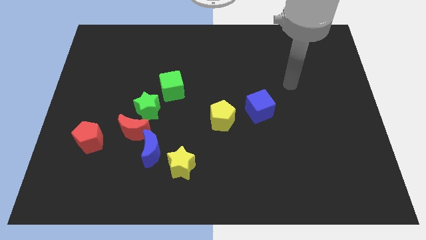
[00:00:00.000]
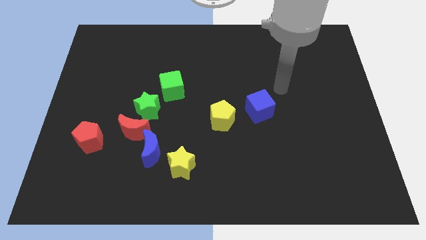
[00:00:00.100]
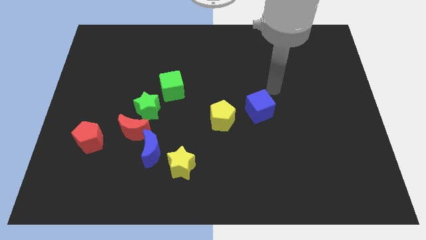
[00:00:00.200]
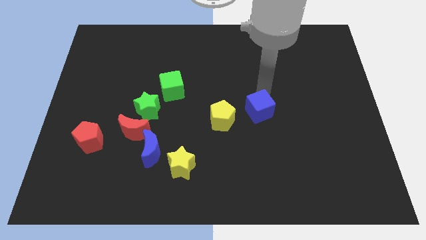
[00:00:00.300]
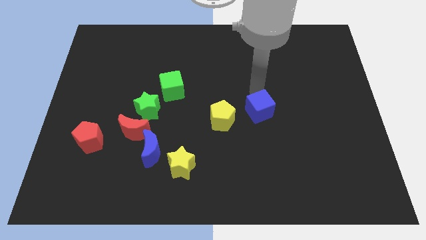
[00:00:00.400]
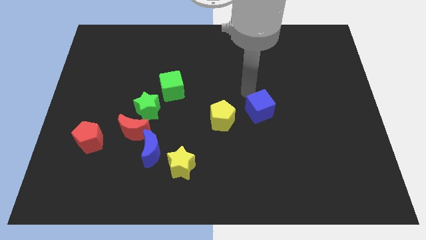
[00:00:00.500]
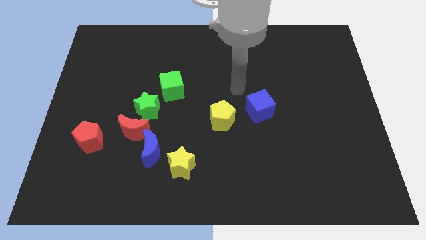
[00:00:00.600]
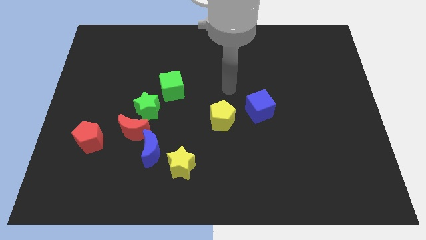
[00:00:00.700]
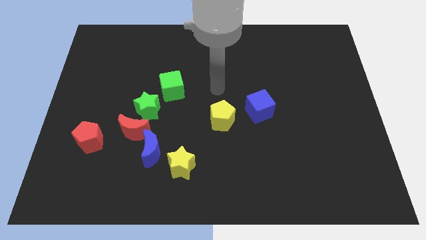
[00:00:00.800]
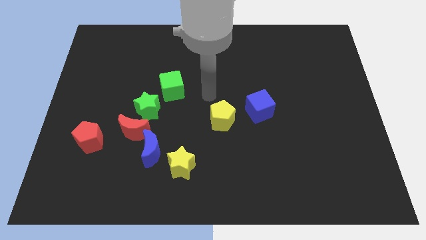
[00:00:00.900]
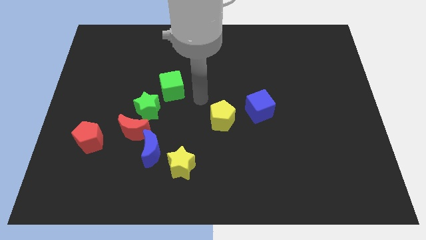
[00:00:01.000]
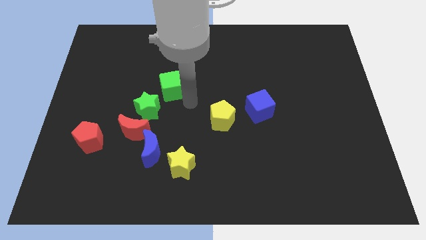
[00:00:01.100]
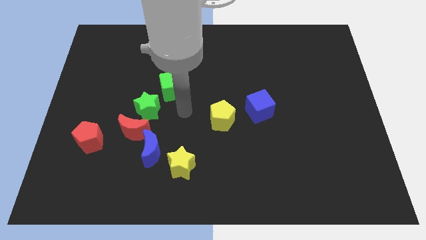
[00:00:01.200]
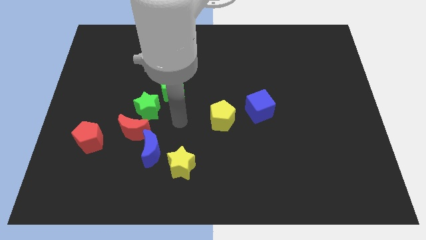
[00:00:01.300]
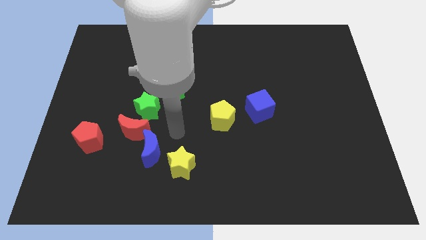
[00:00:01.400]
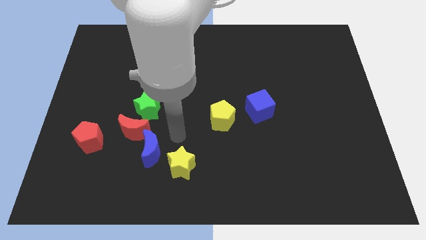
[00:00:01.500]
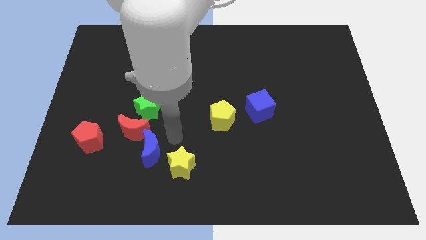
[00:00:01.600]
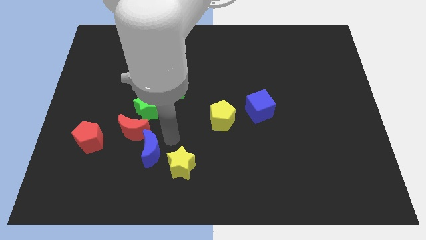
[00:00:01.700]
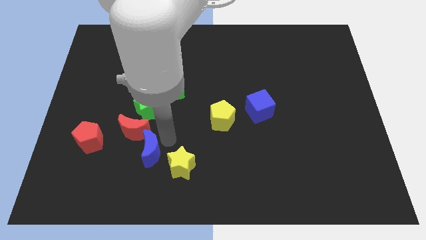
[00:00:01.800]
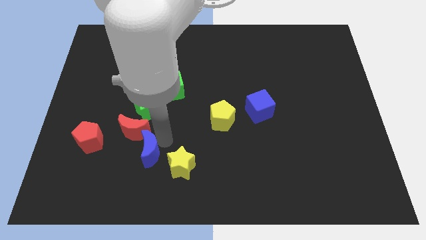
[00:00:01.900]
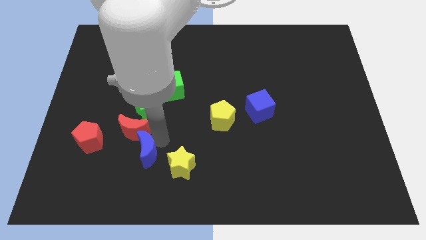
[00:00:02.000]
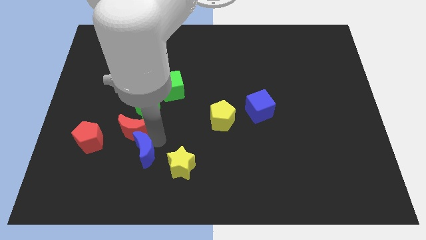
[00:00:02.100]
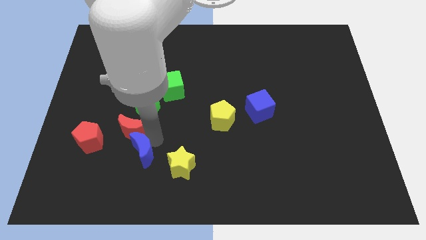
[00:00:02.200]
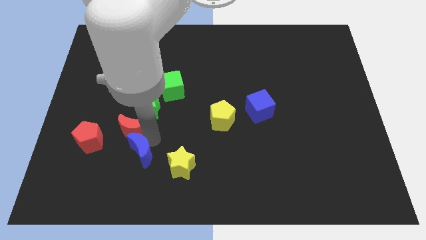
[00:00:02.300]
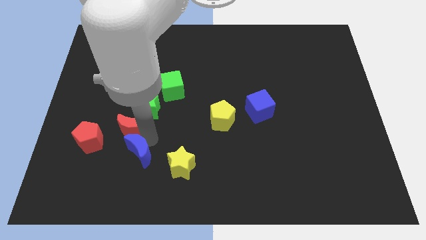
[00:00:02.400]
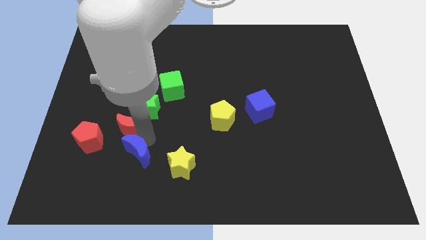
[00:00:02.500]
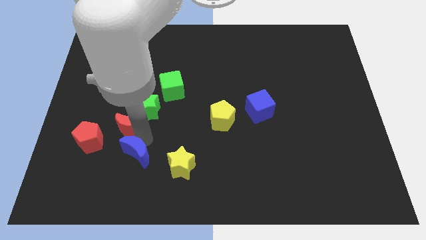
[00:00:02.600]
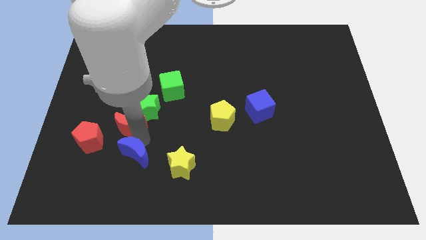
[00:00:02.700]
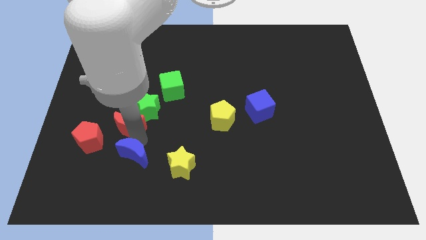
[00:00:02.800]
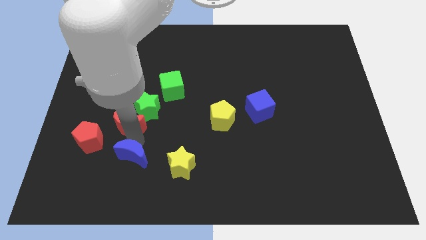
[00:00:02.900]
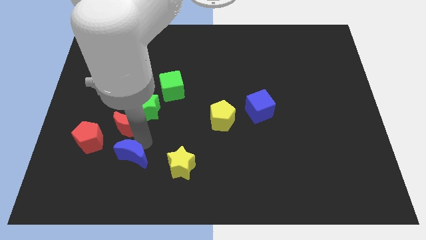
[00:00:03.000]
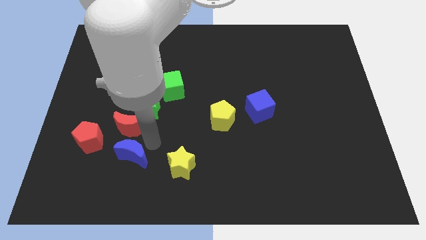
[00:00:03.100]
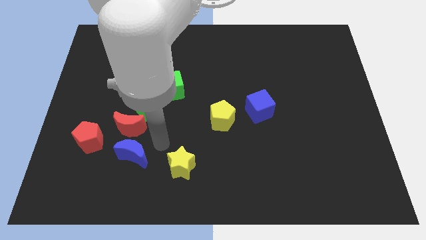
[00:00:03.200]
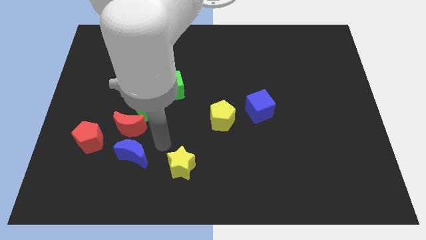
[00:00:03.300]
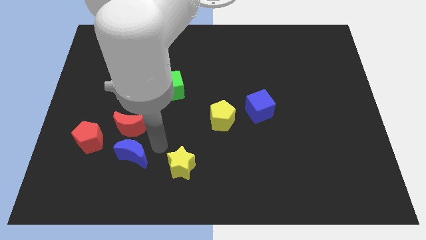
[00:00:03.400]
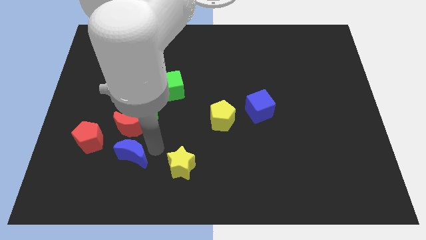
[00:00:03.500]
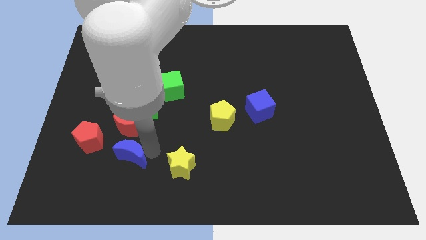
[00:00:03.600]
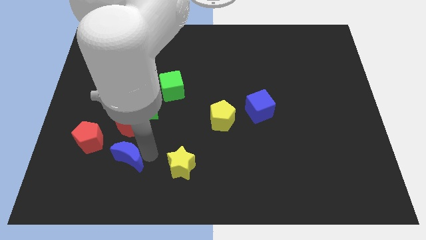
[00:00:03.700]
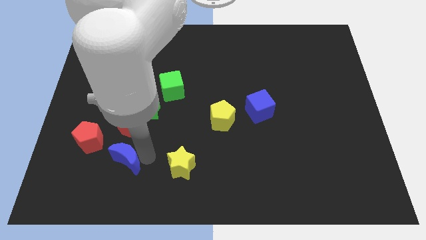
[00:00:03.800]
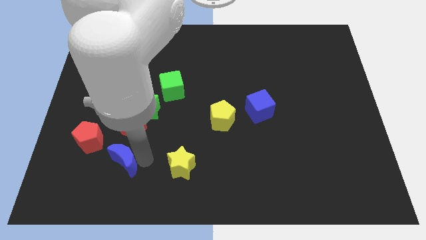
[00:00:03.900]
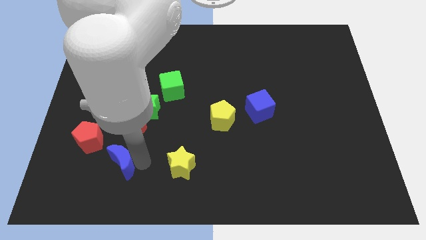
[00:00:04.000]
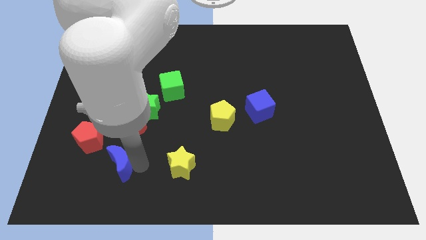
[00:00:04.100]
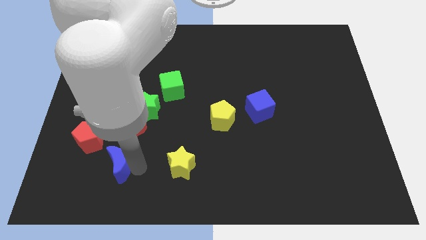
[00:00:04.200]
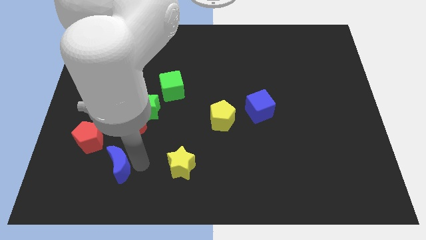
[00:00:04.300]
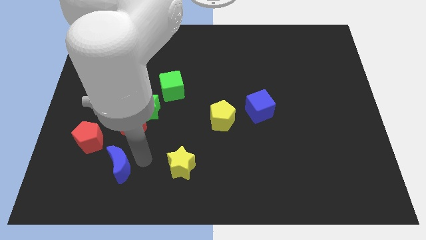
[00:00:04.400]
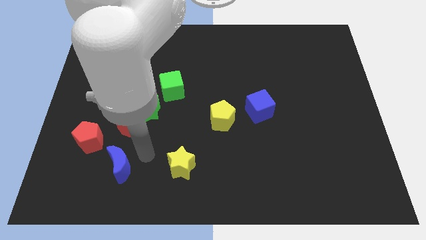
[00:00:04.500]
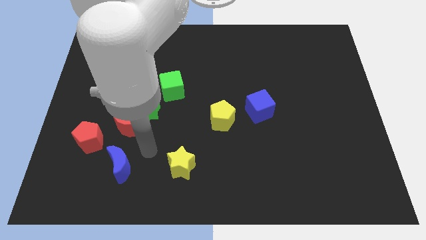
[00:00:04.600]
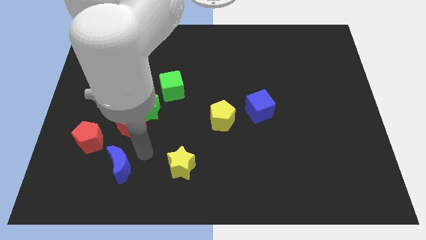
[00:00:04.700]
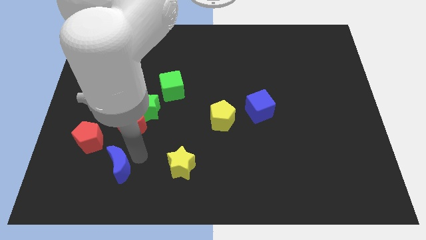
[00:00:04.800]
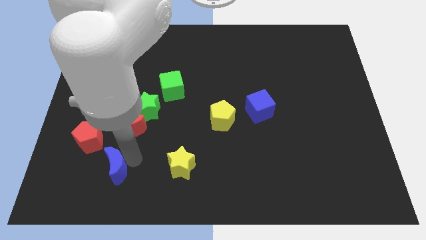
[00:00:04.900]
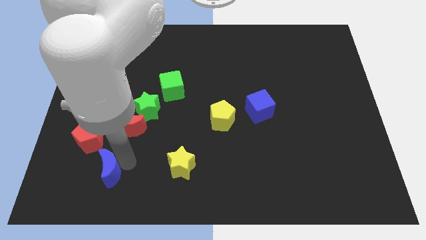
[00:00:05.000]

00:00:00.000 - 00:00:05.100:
separate the blue moon from the red moon and yellow star

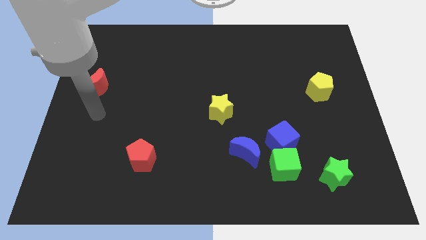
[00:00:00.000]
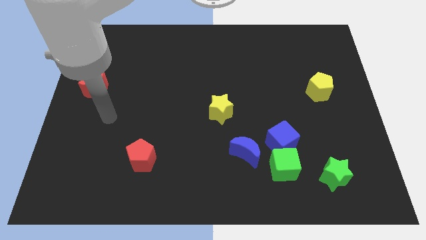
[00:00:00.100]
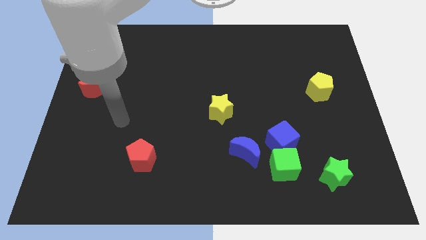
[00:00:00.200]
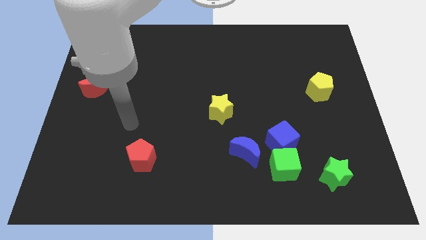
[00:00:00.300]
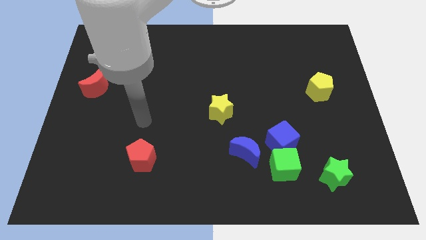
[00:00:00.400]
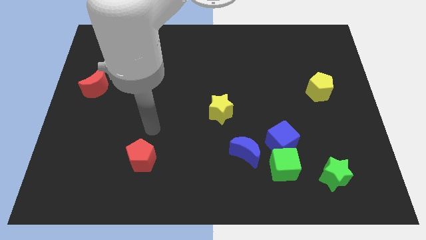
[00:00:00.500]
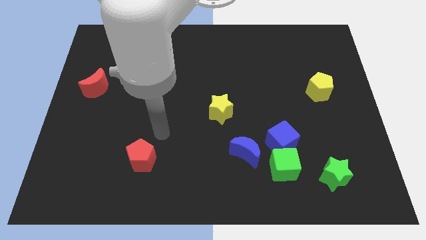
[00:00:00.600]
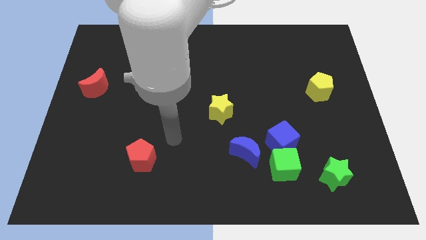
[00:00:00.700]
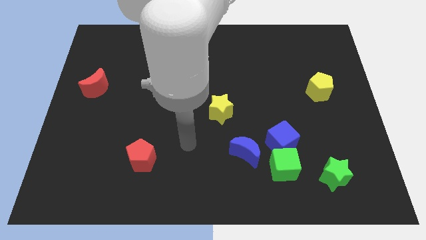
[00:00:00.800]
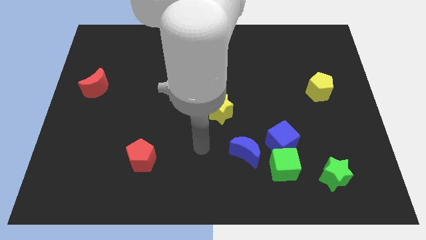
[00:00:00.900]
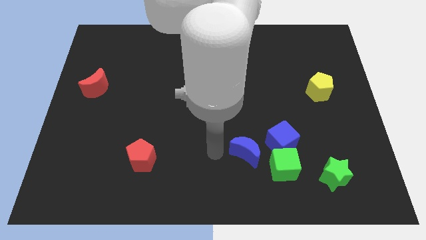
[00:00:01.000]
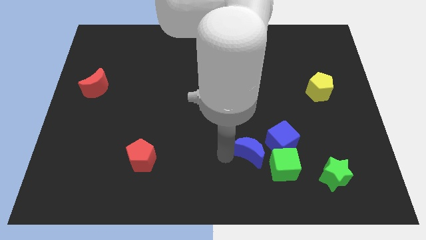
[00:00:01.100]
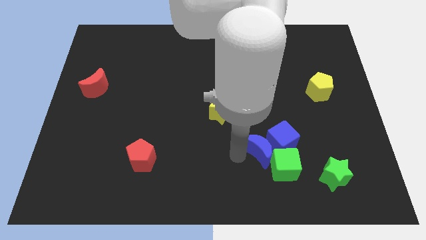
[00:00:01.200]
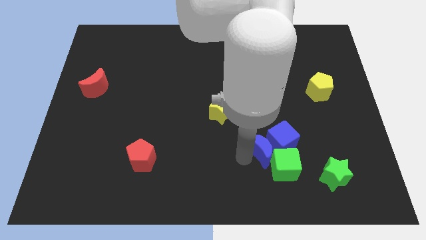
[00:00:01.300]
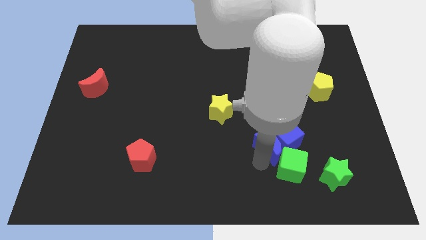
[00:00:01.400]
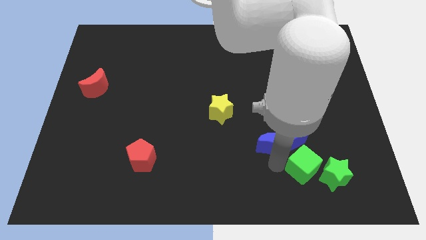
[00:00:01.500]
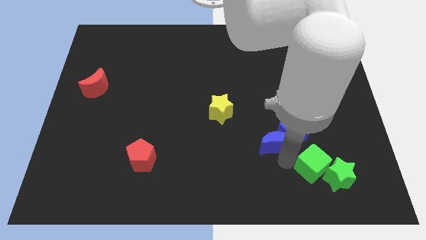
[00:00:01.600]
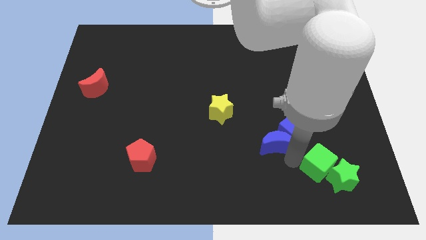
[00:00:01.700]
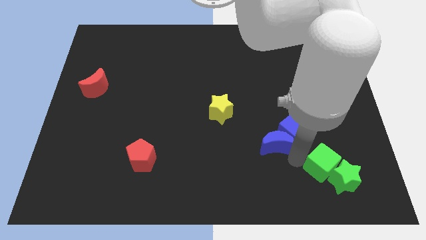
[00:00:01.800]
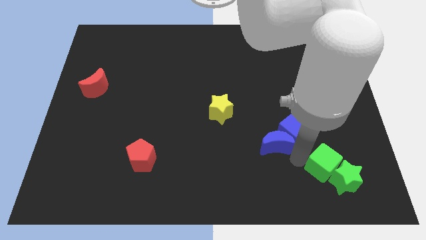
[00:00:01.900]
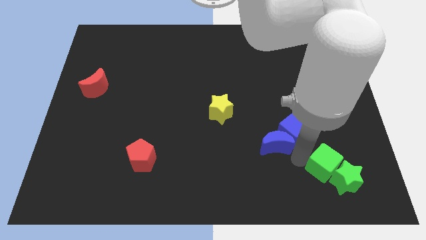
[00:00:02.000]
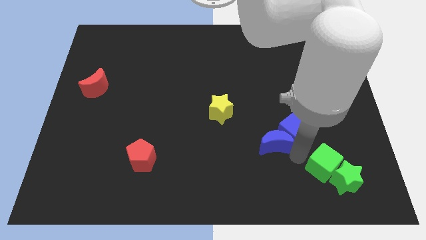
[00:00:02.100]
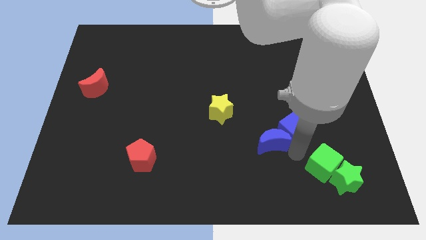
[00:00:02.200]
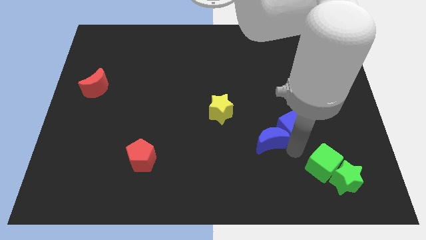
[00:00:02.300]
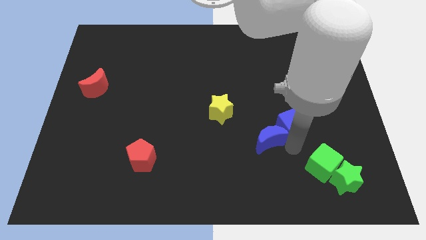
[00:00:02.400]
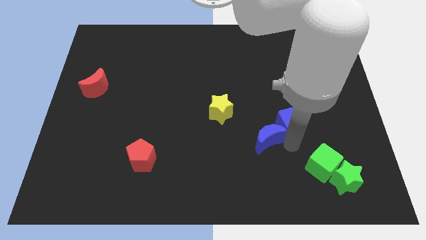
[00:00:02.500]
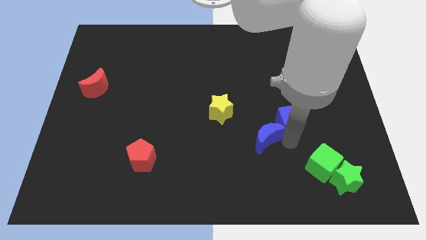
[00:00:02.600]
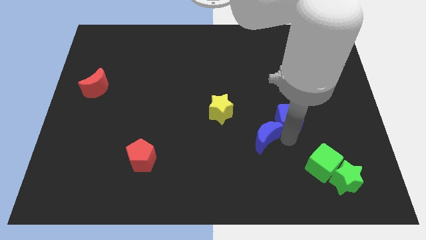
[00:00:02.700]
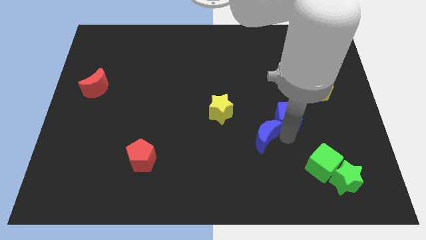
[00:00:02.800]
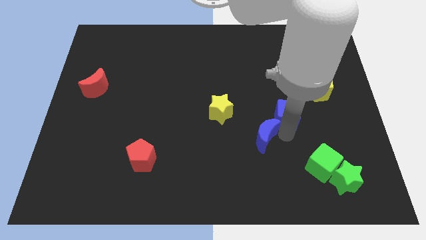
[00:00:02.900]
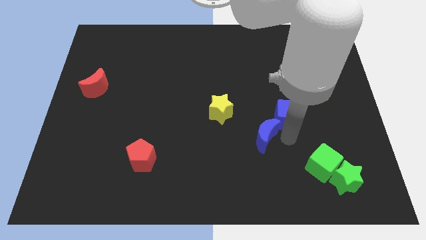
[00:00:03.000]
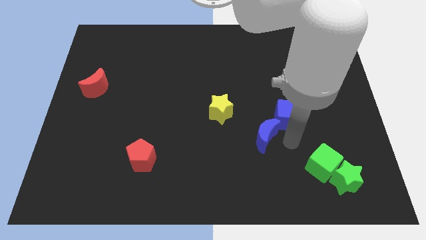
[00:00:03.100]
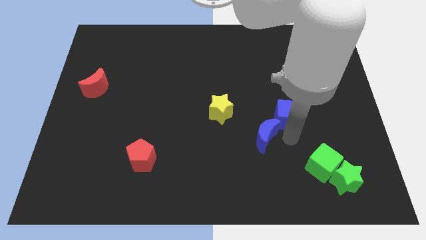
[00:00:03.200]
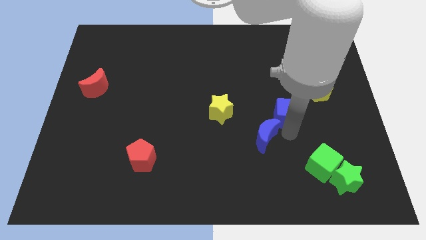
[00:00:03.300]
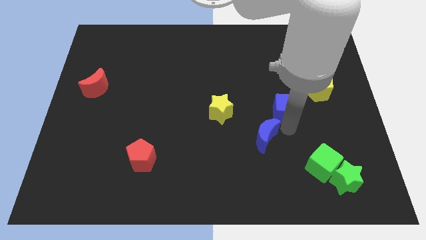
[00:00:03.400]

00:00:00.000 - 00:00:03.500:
move the blue cube away from the green cube and blue moon

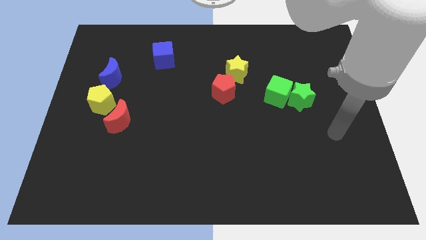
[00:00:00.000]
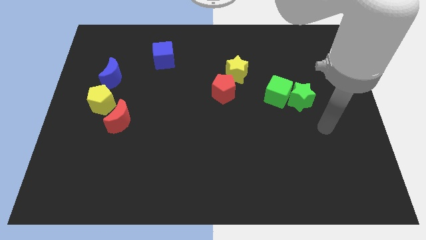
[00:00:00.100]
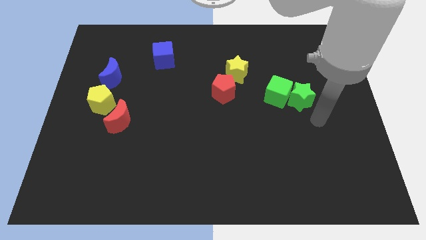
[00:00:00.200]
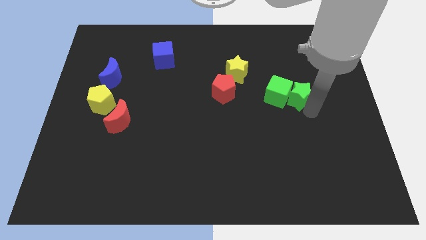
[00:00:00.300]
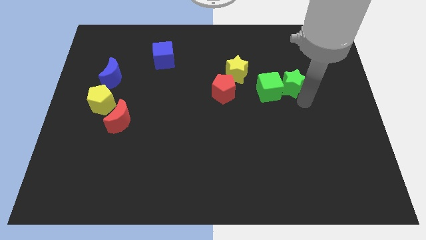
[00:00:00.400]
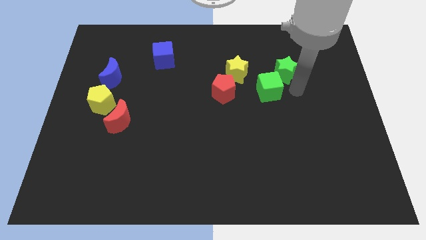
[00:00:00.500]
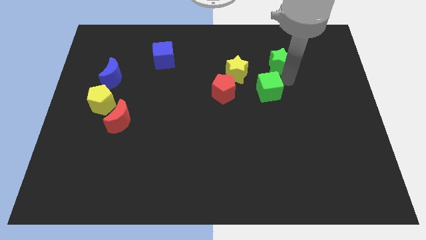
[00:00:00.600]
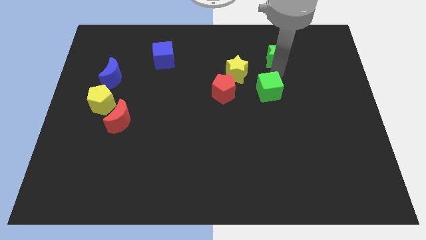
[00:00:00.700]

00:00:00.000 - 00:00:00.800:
move the green cube away from the green star
